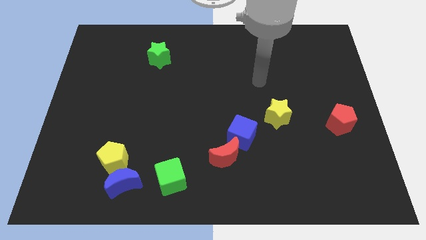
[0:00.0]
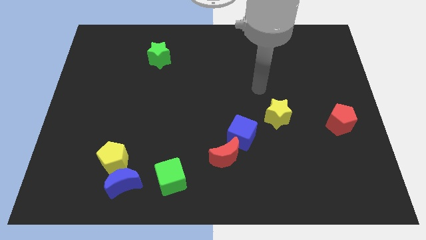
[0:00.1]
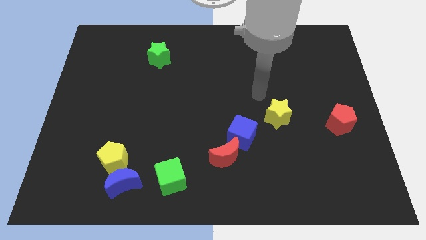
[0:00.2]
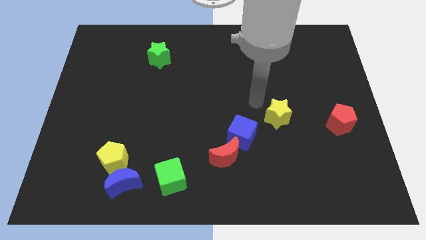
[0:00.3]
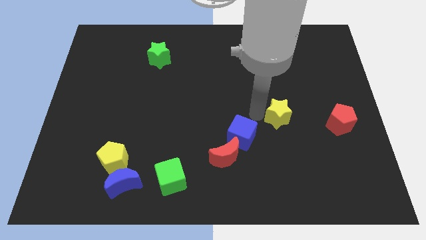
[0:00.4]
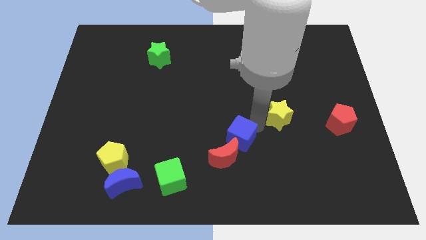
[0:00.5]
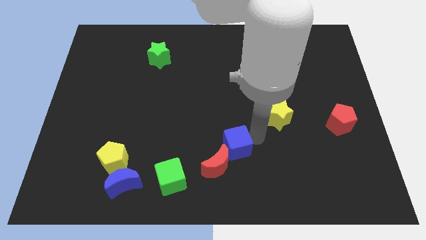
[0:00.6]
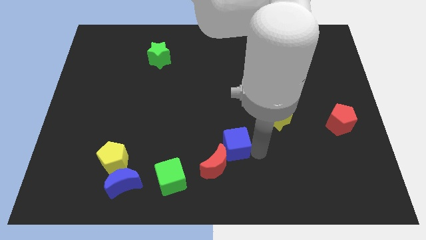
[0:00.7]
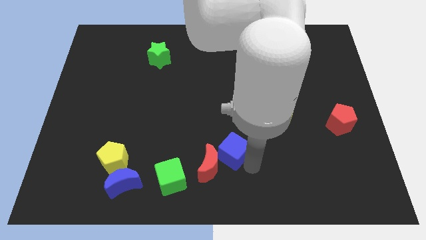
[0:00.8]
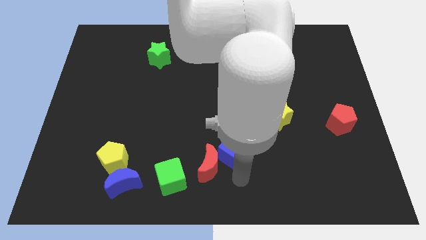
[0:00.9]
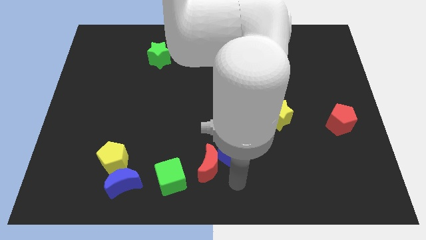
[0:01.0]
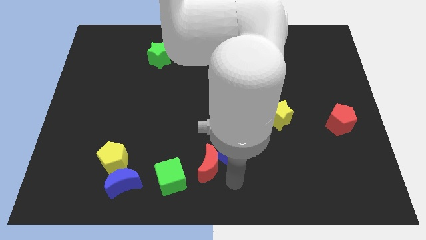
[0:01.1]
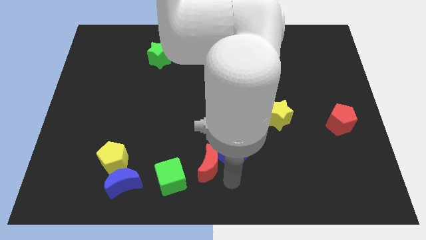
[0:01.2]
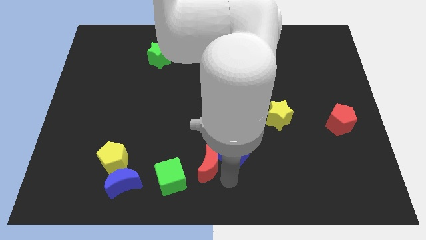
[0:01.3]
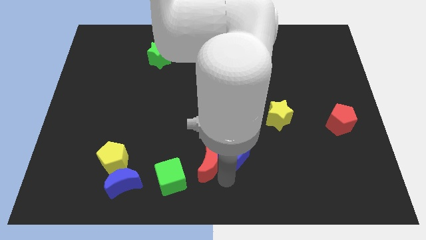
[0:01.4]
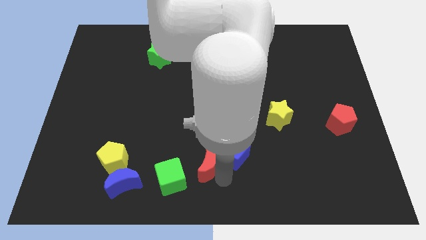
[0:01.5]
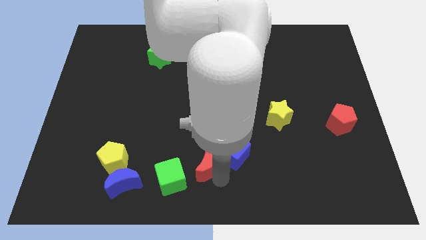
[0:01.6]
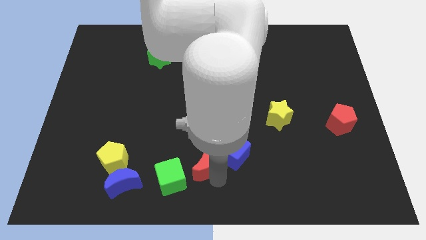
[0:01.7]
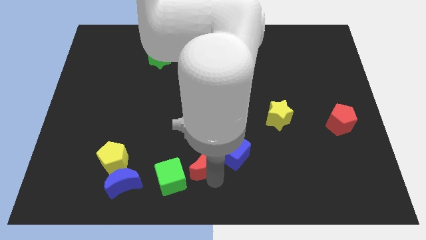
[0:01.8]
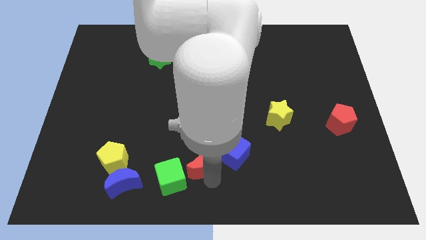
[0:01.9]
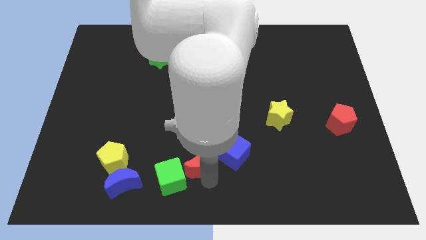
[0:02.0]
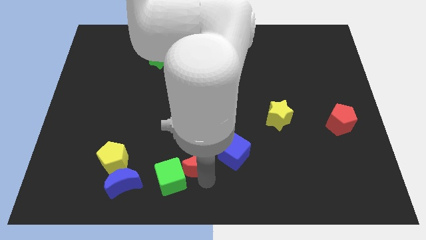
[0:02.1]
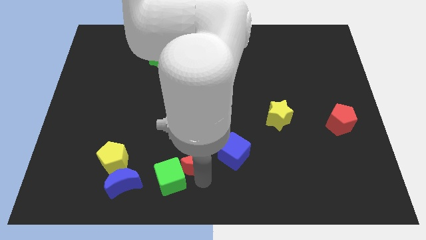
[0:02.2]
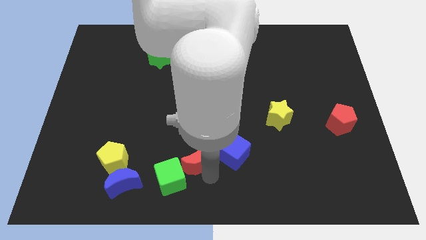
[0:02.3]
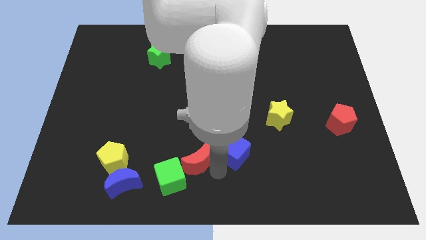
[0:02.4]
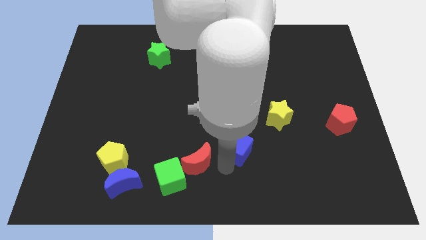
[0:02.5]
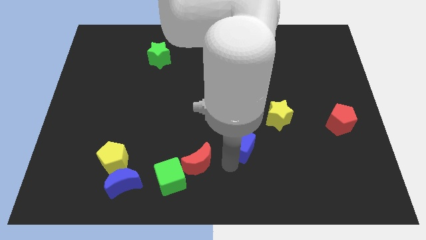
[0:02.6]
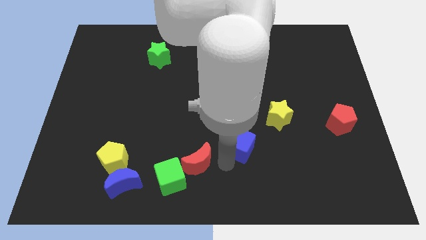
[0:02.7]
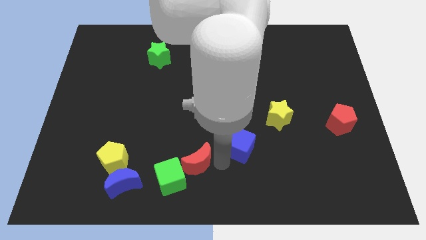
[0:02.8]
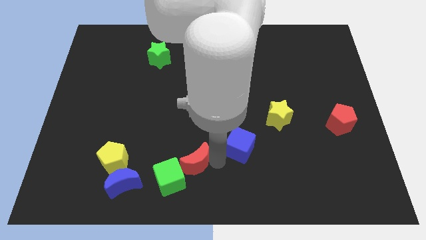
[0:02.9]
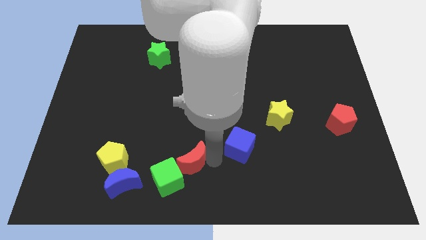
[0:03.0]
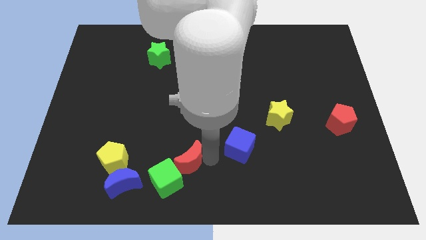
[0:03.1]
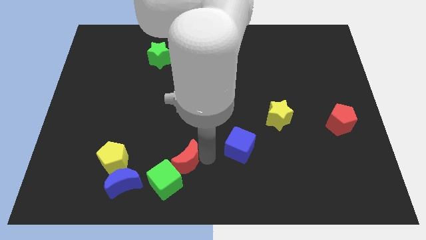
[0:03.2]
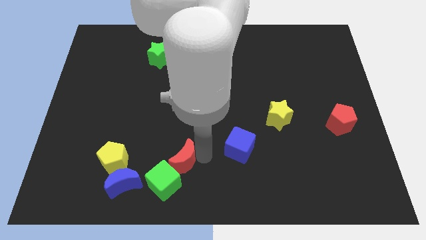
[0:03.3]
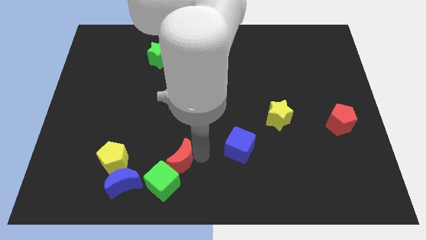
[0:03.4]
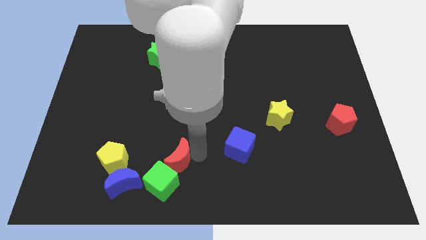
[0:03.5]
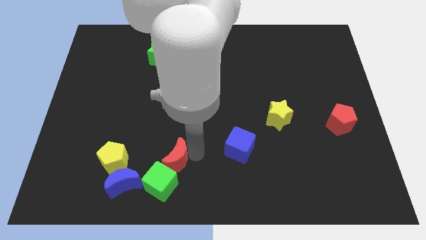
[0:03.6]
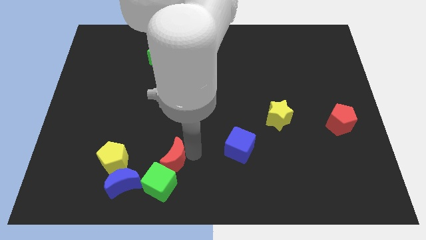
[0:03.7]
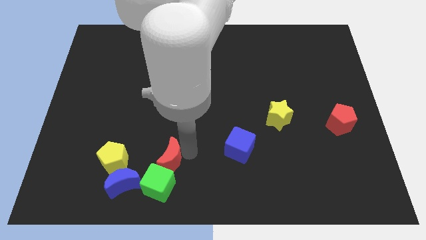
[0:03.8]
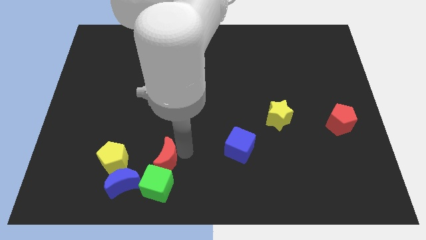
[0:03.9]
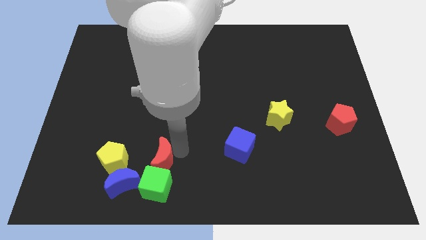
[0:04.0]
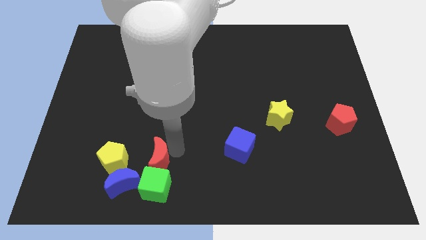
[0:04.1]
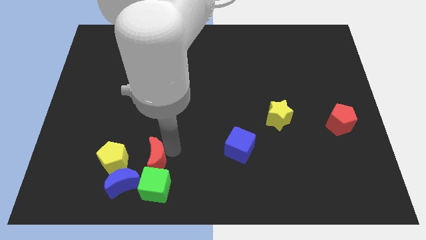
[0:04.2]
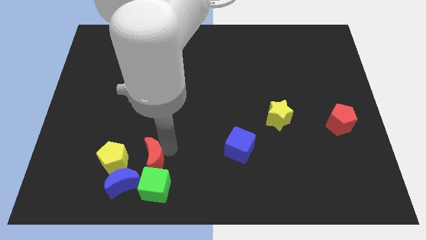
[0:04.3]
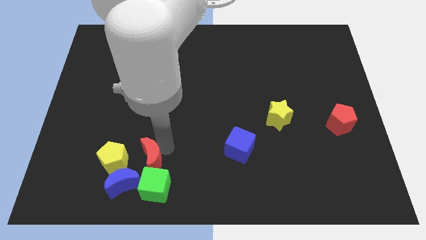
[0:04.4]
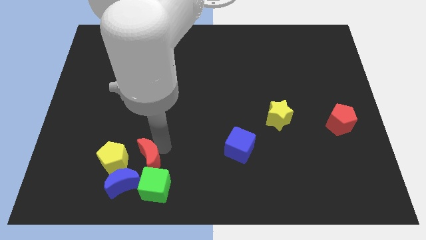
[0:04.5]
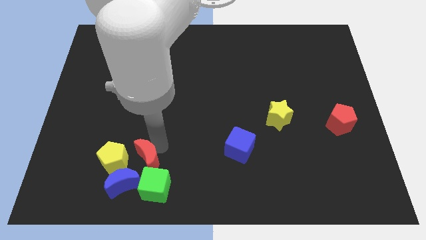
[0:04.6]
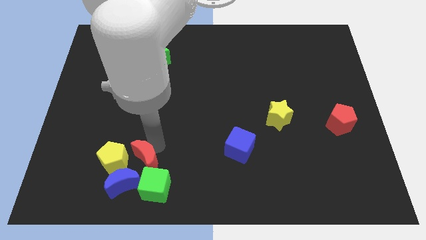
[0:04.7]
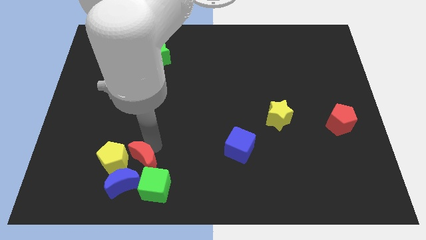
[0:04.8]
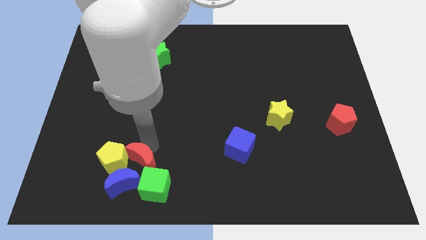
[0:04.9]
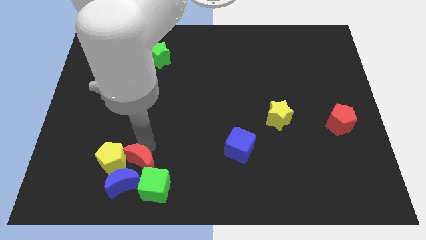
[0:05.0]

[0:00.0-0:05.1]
push the red moon to the blue moon

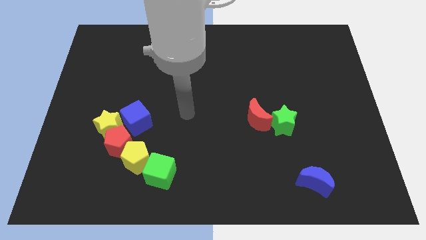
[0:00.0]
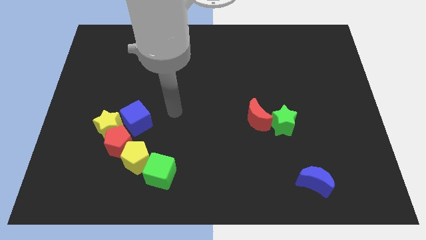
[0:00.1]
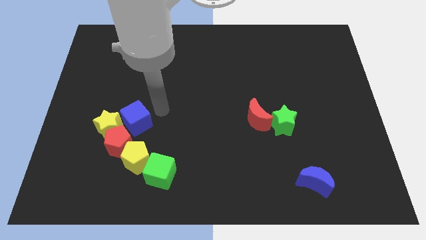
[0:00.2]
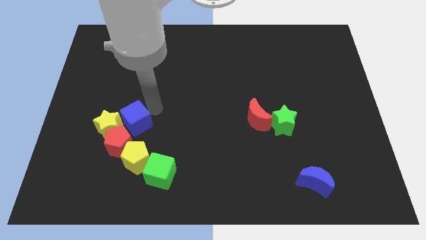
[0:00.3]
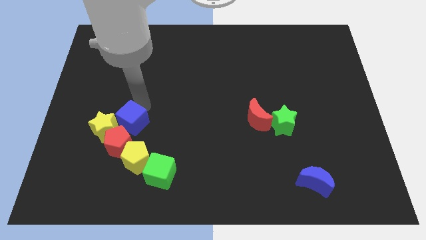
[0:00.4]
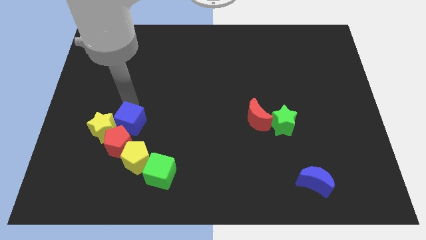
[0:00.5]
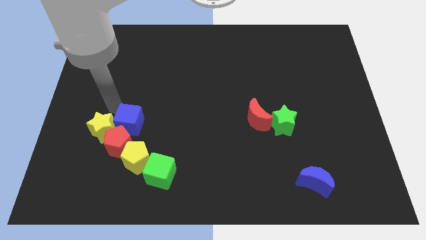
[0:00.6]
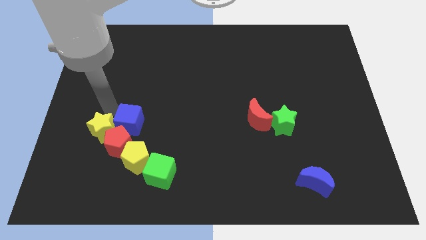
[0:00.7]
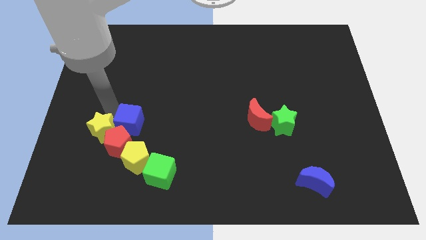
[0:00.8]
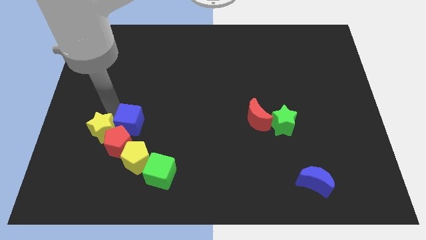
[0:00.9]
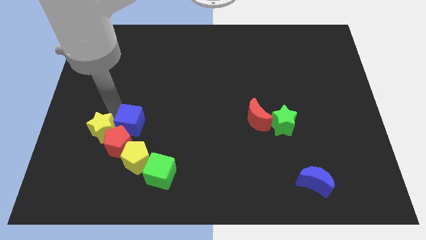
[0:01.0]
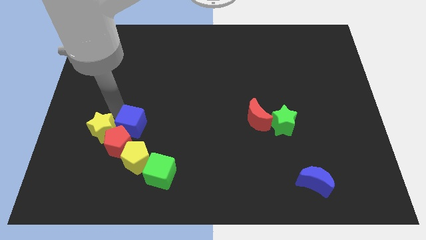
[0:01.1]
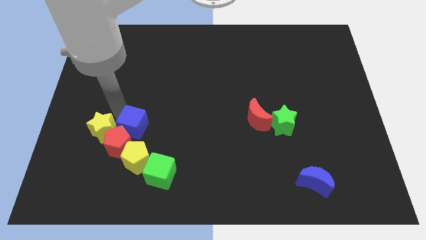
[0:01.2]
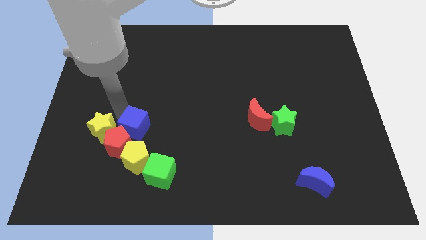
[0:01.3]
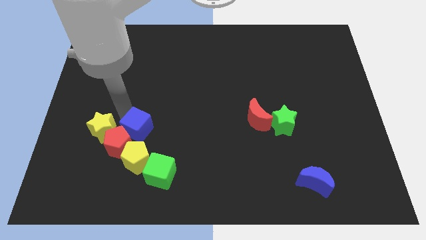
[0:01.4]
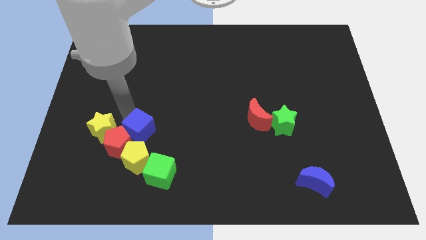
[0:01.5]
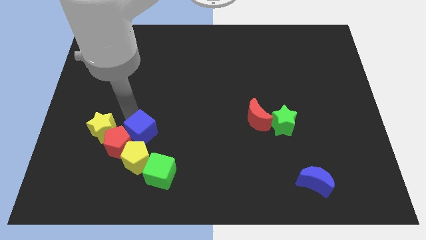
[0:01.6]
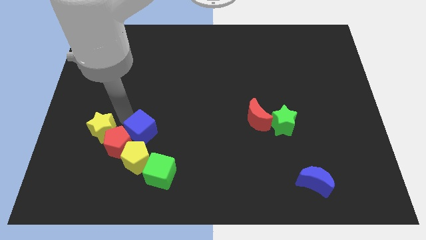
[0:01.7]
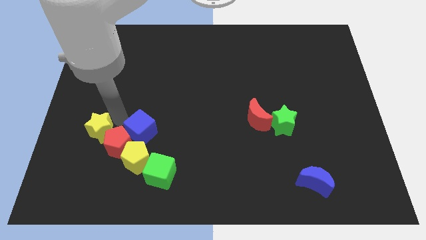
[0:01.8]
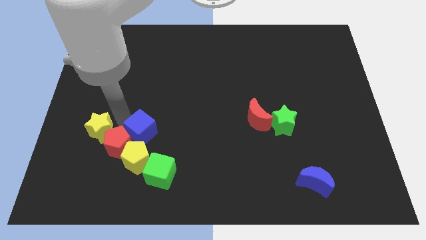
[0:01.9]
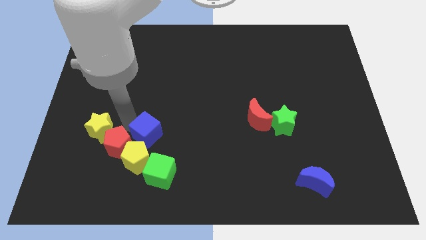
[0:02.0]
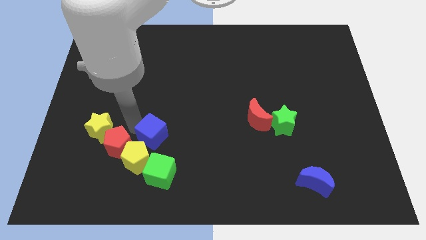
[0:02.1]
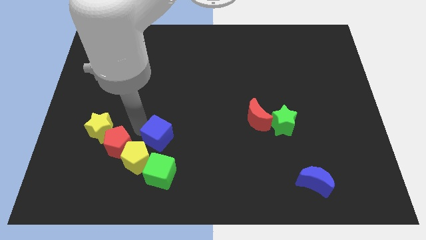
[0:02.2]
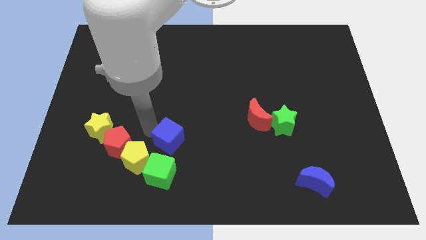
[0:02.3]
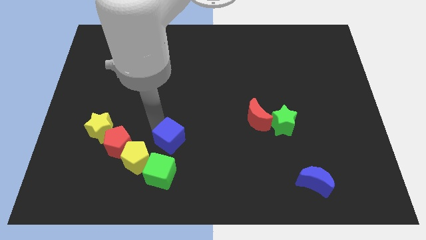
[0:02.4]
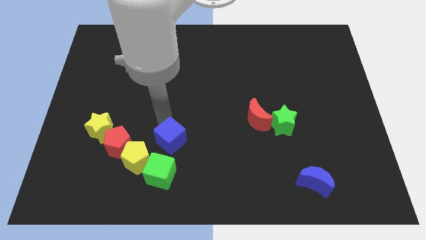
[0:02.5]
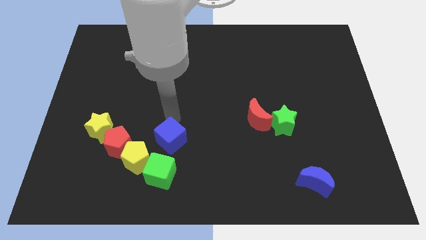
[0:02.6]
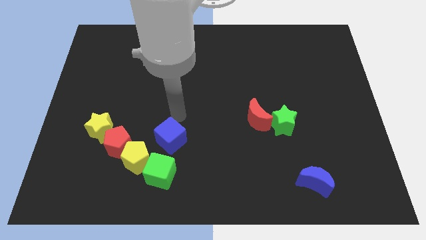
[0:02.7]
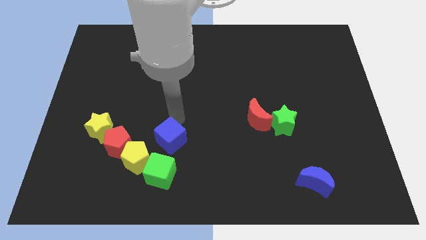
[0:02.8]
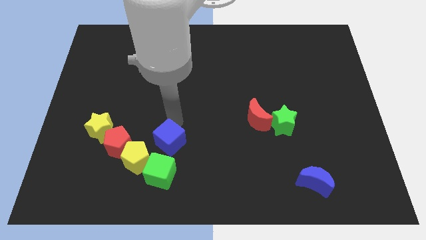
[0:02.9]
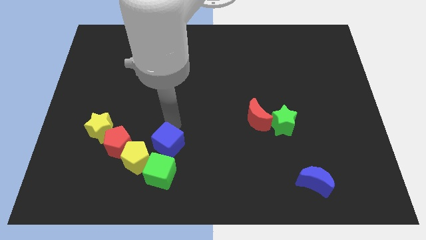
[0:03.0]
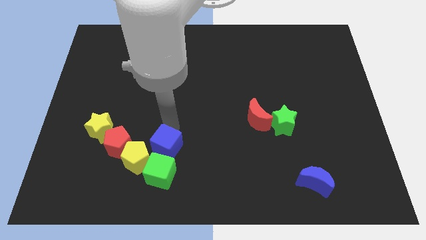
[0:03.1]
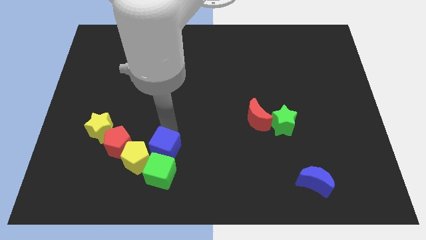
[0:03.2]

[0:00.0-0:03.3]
push the blue cube to the green cube
